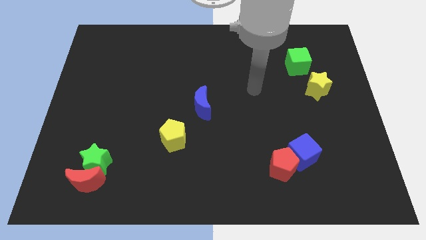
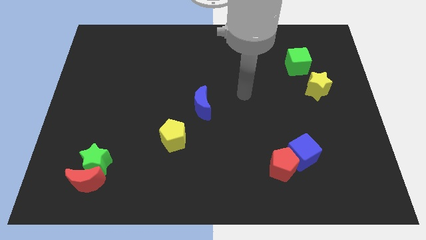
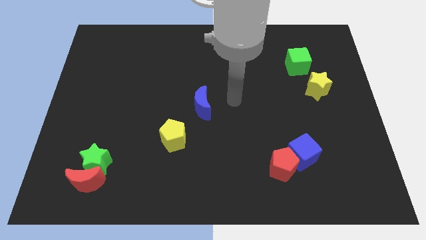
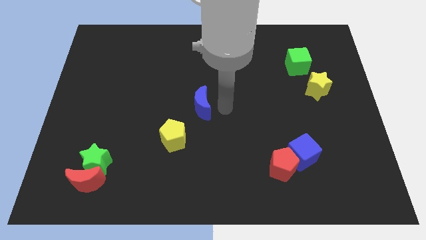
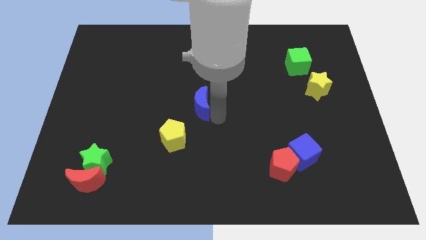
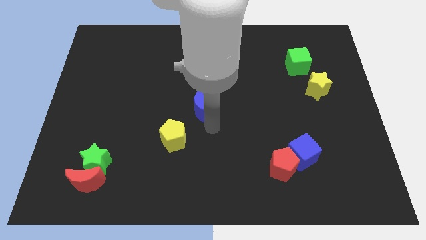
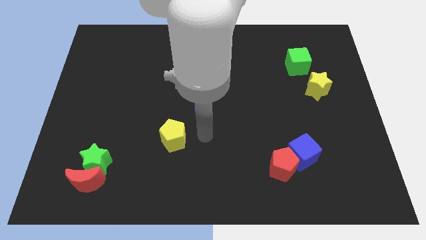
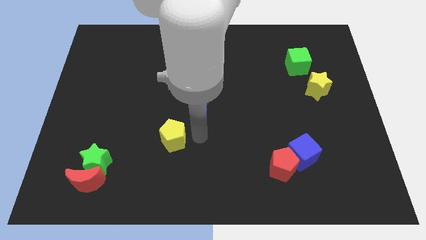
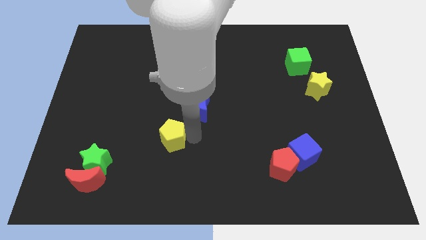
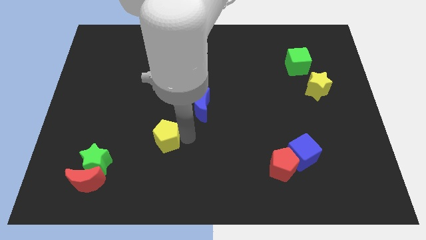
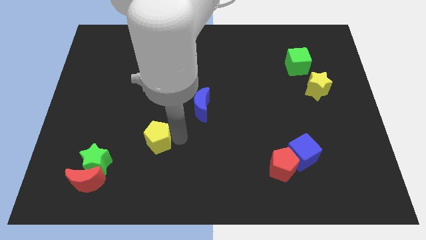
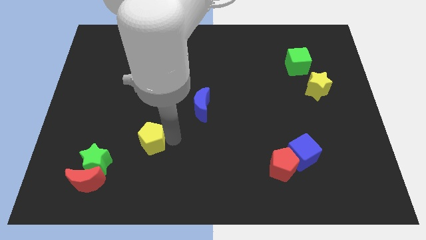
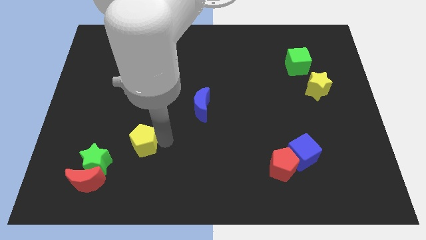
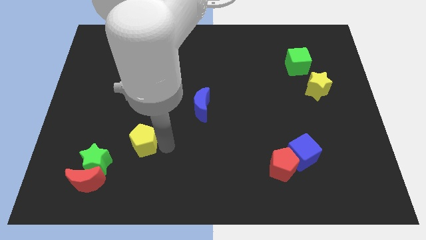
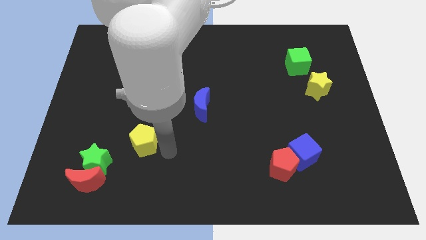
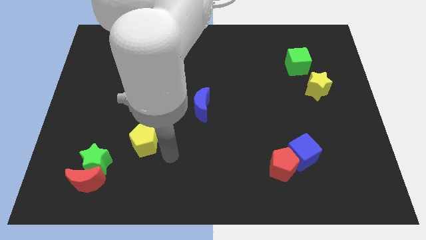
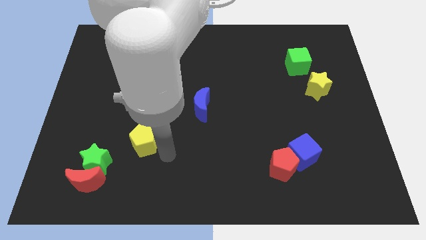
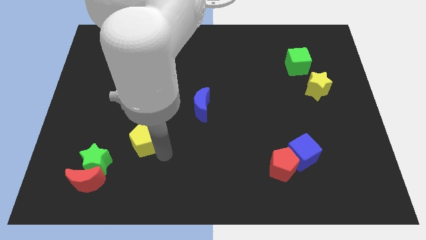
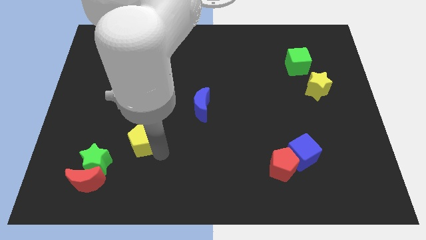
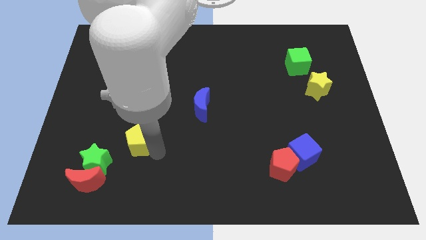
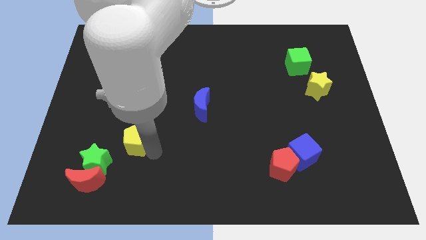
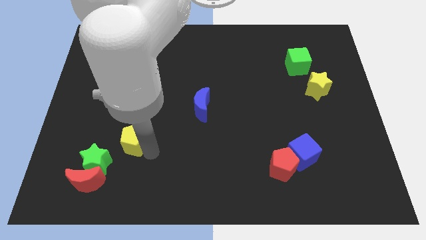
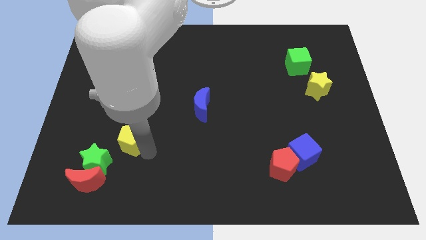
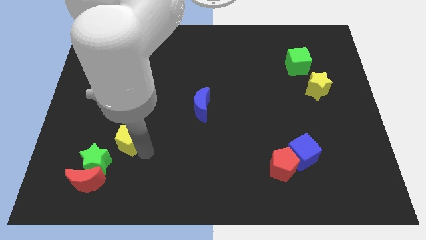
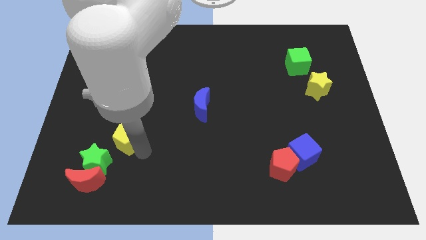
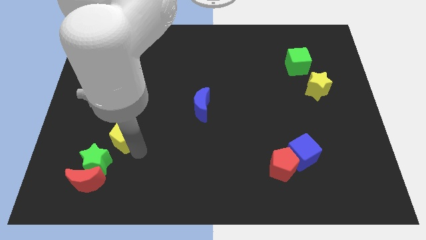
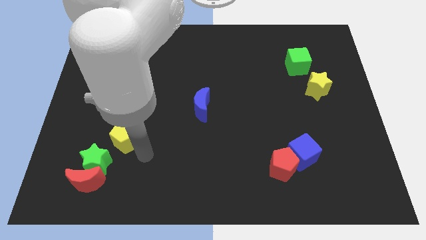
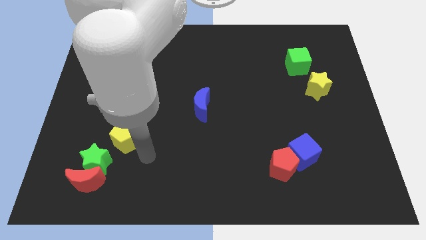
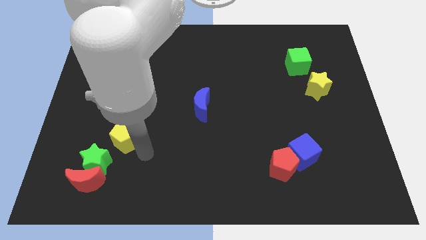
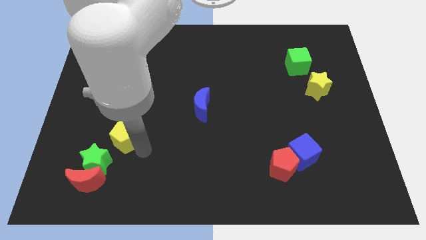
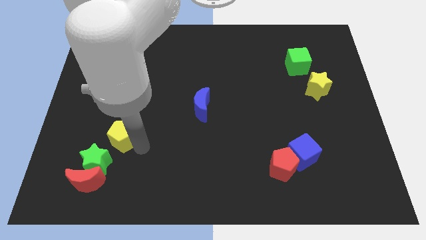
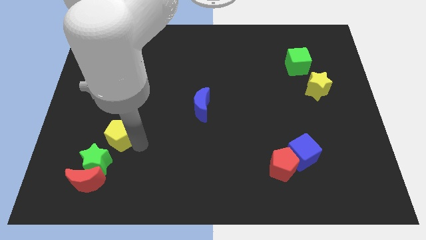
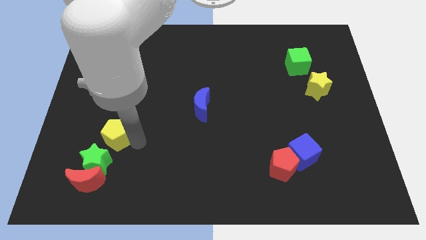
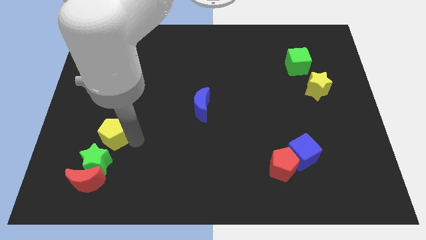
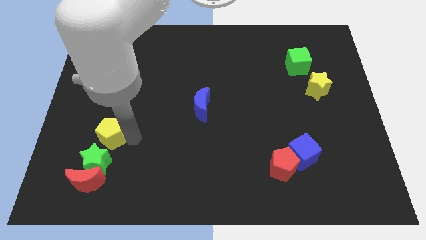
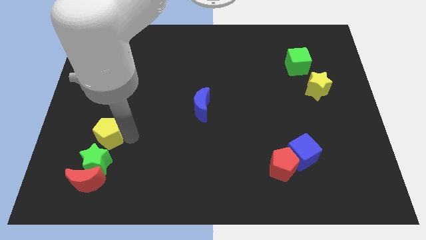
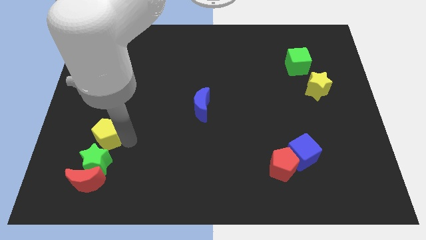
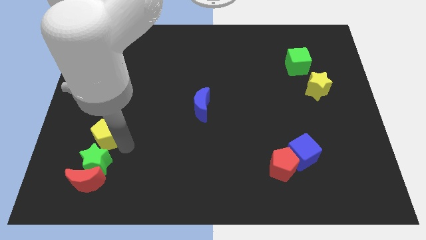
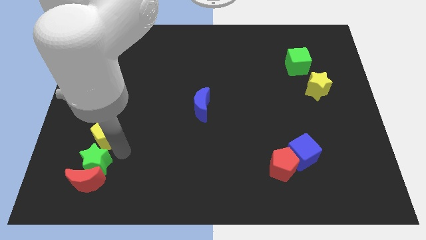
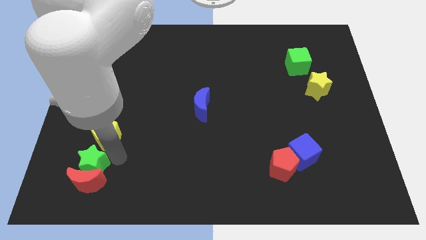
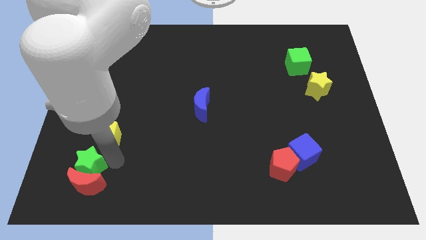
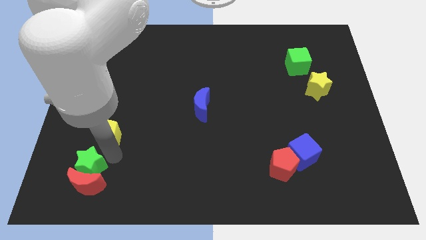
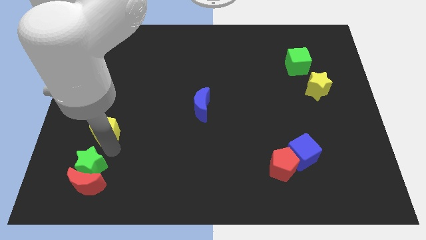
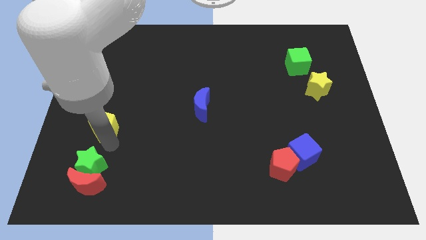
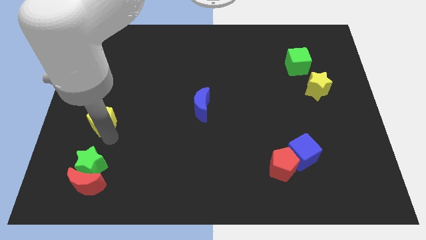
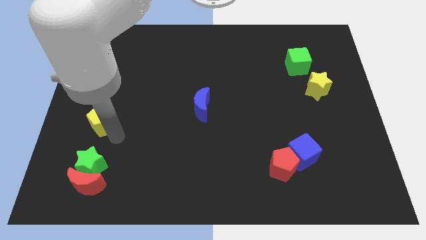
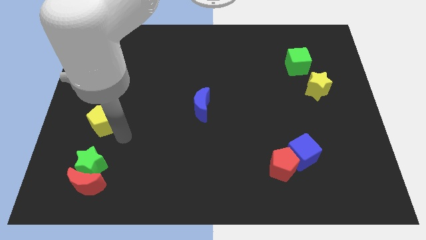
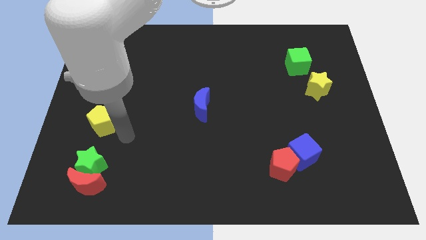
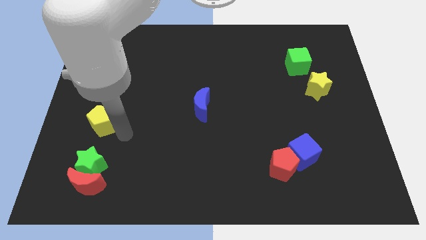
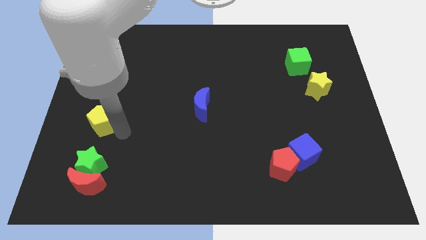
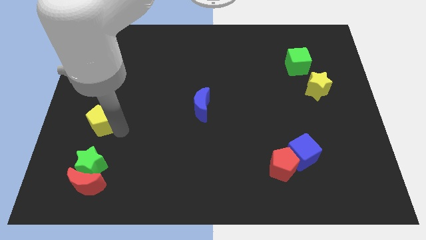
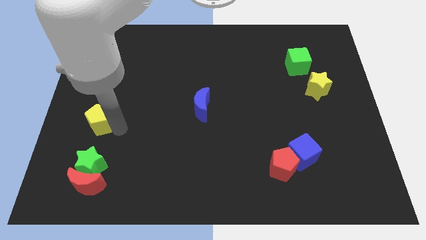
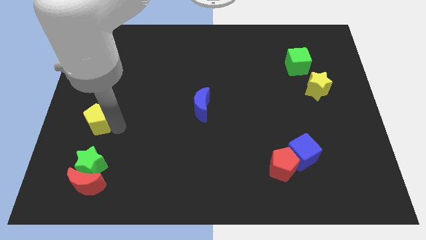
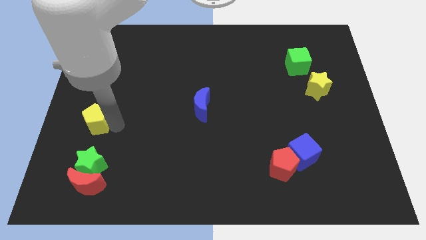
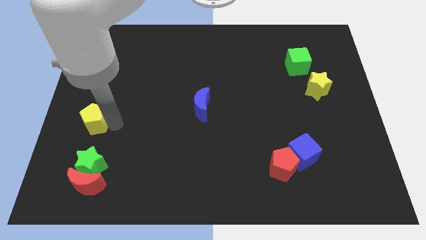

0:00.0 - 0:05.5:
move the yellow pentagon to the left side
